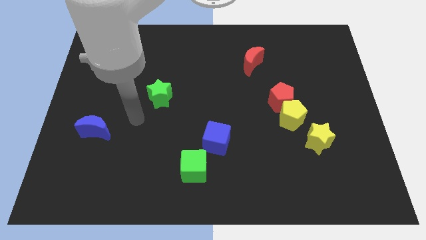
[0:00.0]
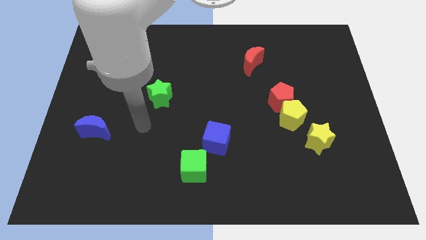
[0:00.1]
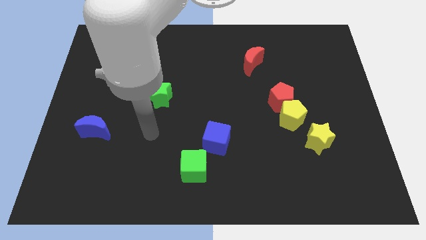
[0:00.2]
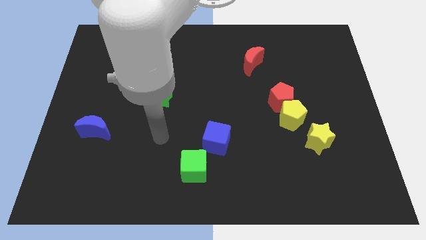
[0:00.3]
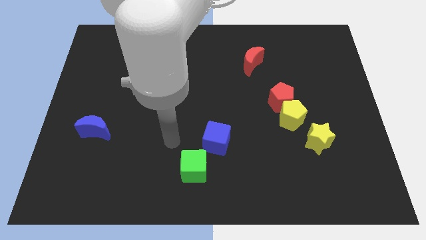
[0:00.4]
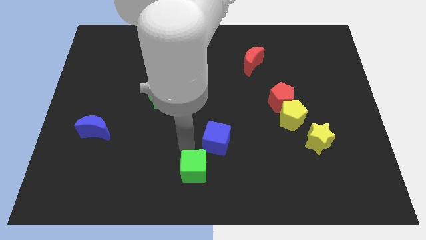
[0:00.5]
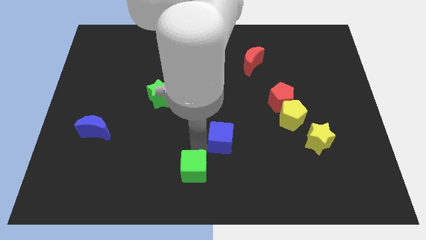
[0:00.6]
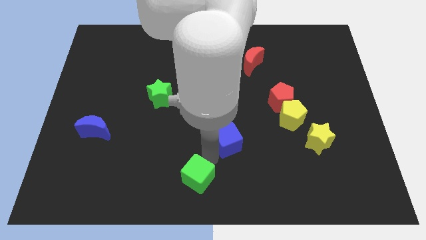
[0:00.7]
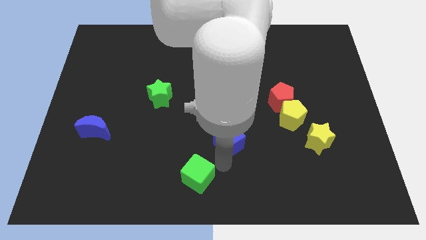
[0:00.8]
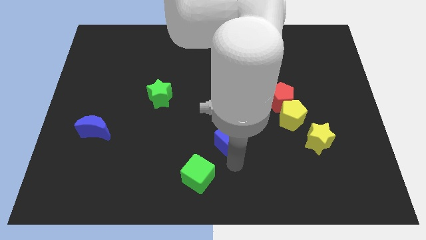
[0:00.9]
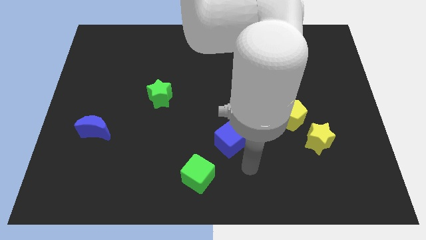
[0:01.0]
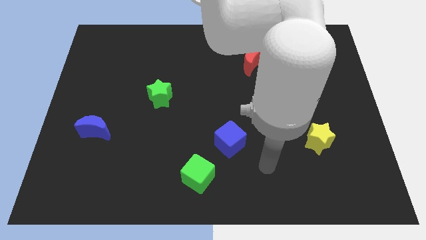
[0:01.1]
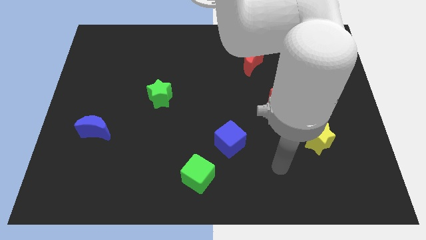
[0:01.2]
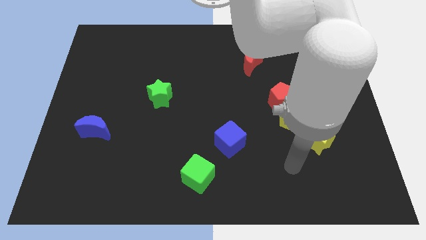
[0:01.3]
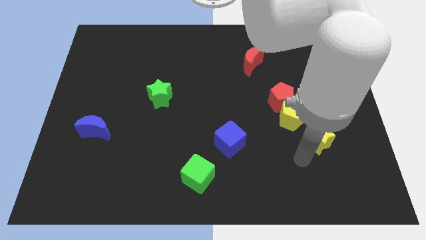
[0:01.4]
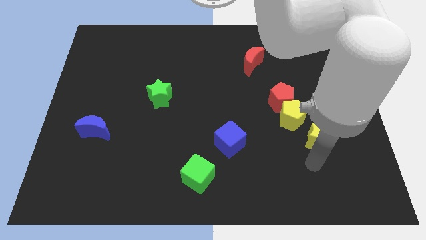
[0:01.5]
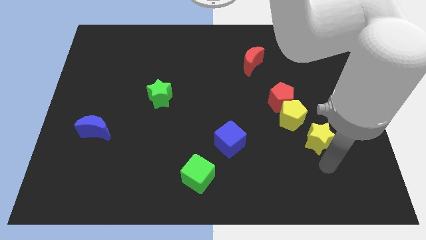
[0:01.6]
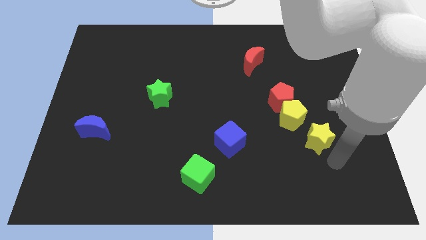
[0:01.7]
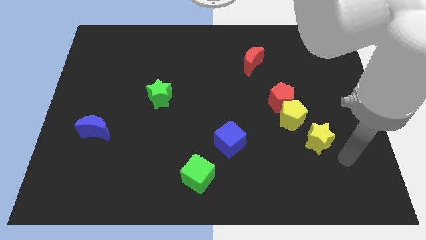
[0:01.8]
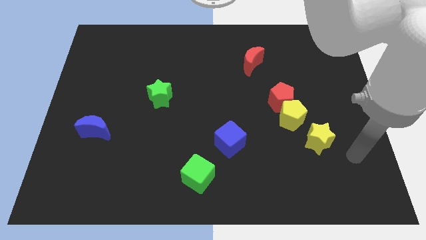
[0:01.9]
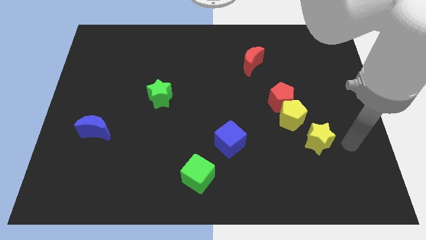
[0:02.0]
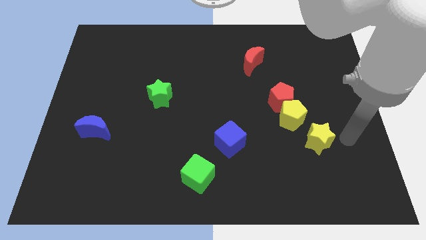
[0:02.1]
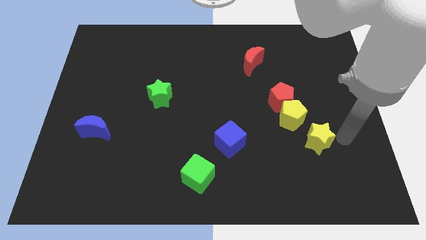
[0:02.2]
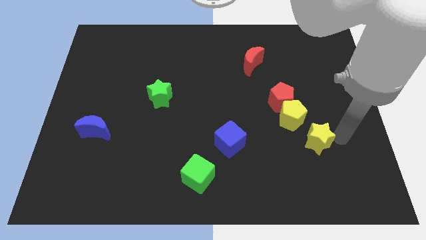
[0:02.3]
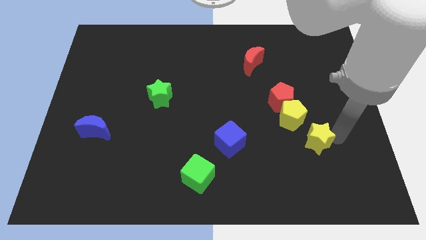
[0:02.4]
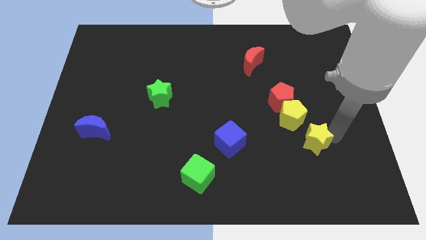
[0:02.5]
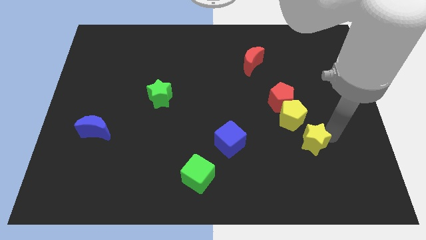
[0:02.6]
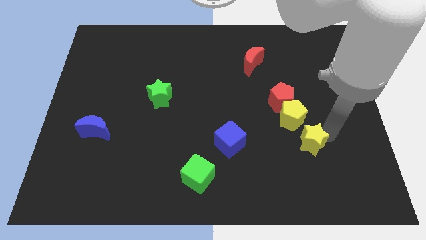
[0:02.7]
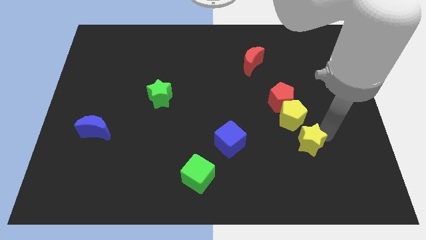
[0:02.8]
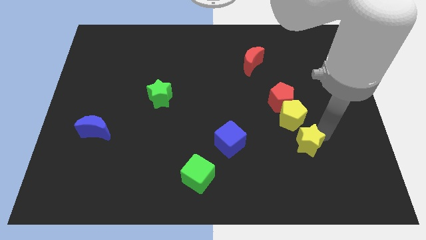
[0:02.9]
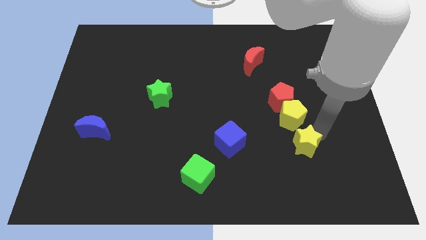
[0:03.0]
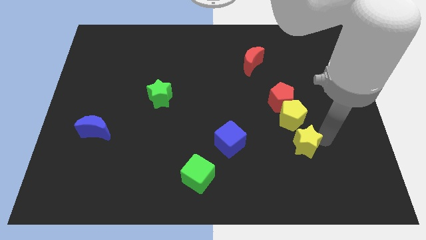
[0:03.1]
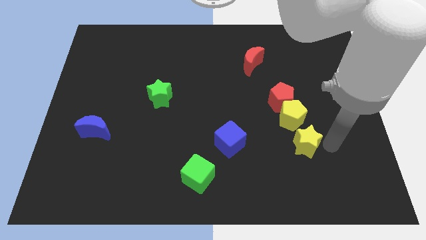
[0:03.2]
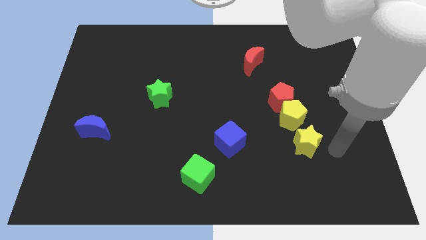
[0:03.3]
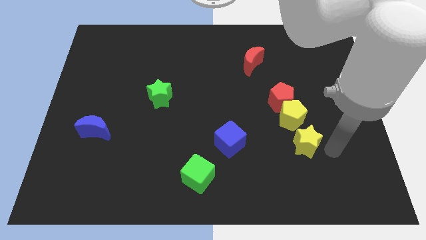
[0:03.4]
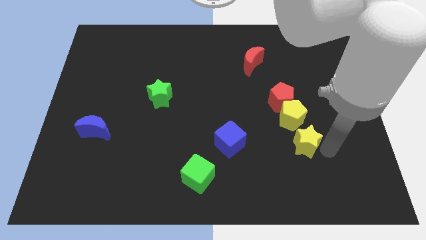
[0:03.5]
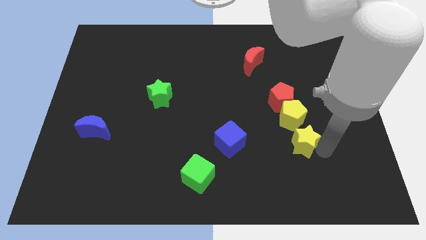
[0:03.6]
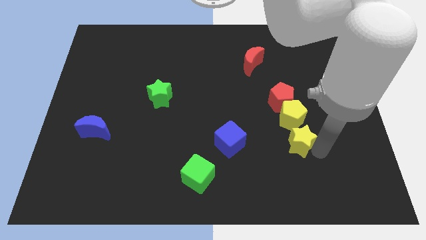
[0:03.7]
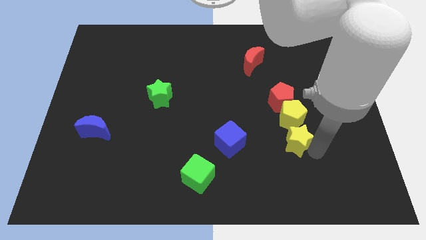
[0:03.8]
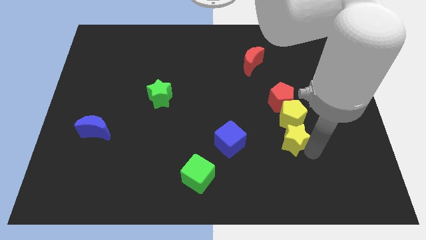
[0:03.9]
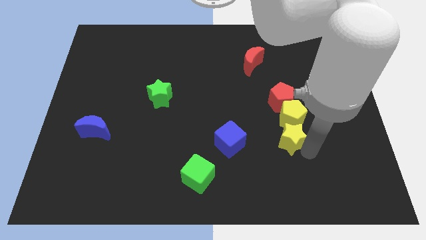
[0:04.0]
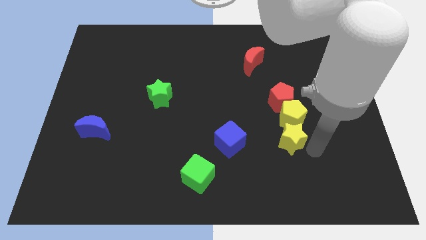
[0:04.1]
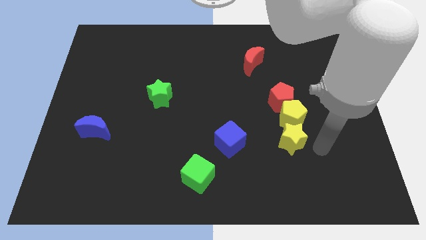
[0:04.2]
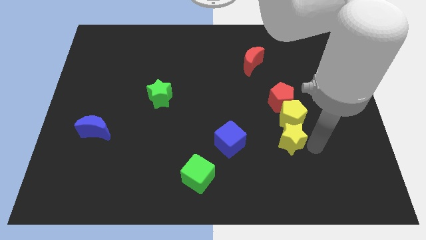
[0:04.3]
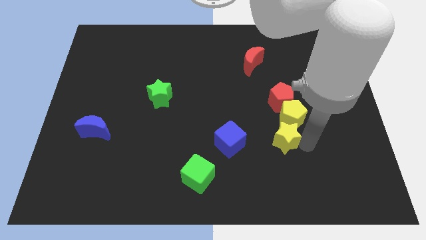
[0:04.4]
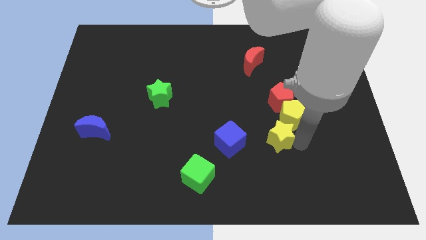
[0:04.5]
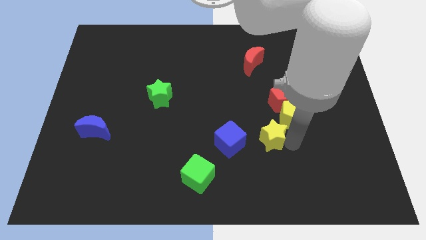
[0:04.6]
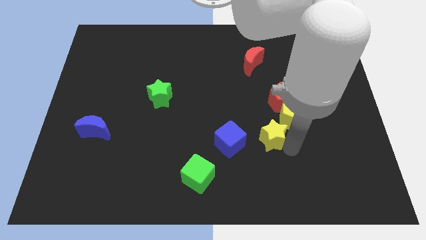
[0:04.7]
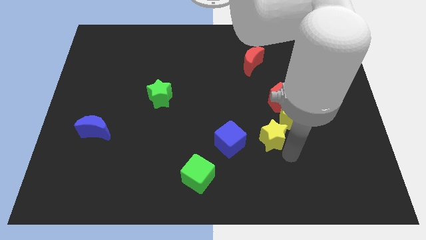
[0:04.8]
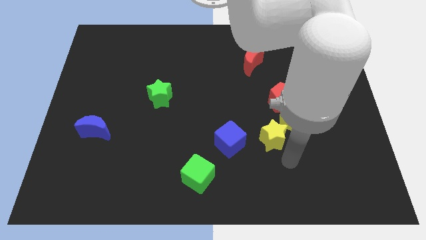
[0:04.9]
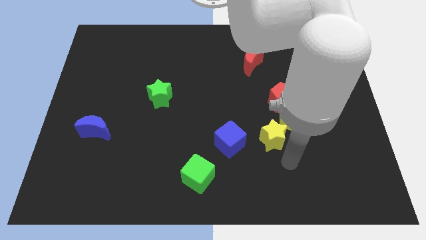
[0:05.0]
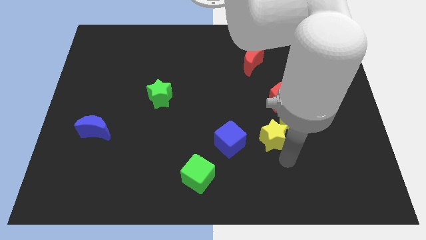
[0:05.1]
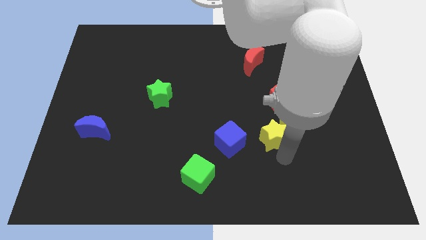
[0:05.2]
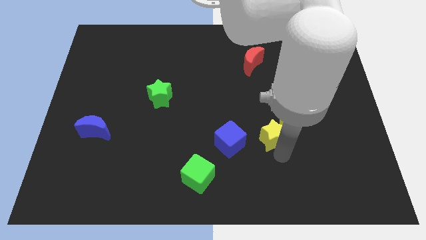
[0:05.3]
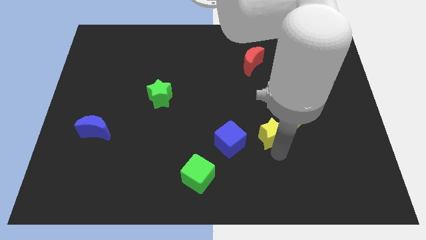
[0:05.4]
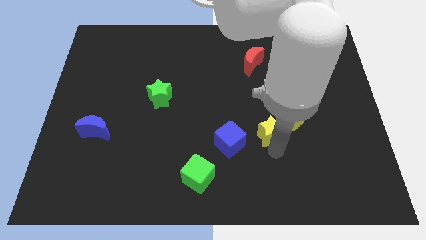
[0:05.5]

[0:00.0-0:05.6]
move the yellow star upwards and then left a bit

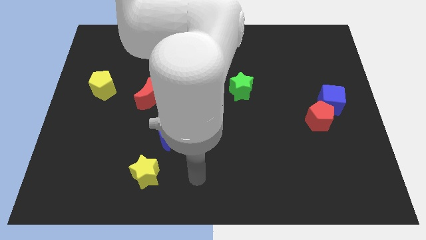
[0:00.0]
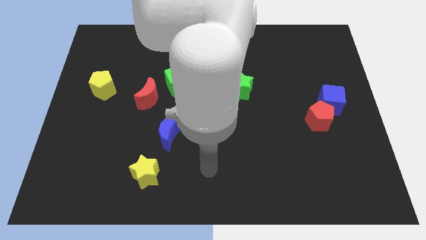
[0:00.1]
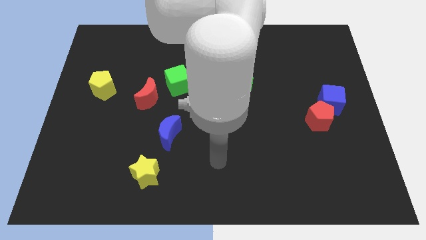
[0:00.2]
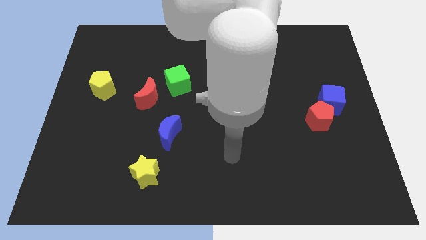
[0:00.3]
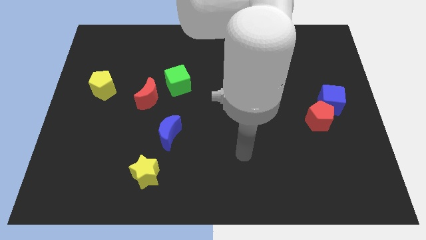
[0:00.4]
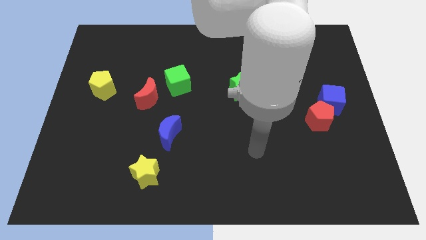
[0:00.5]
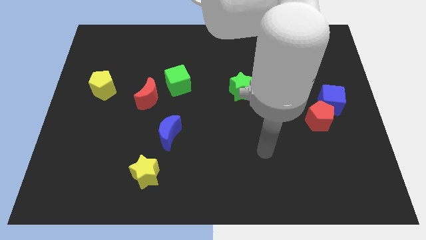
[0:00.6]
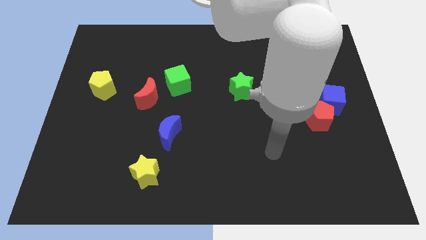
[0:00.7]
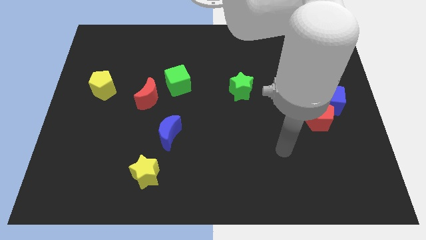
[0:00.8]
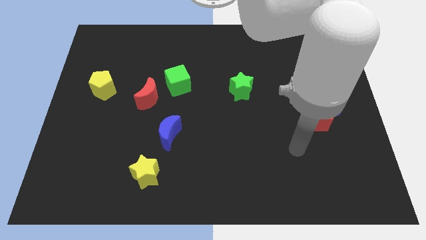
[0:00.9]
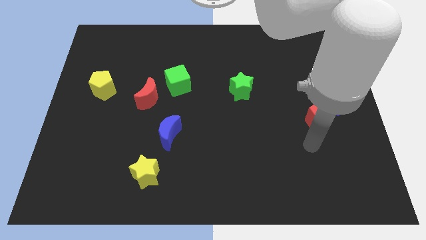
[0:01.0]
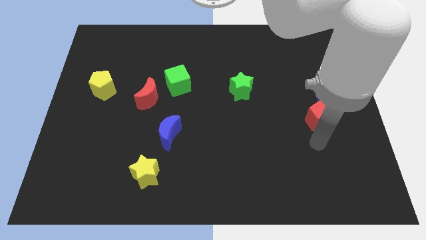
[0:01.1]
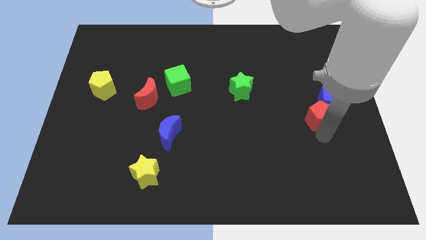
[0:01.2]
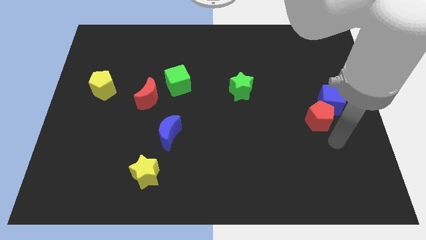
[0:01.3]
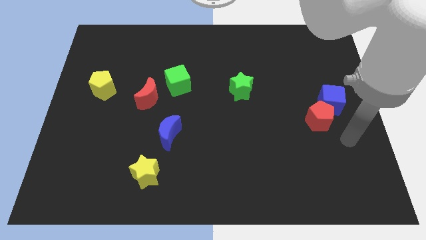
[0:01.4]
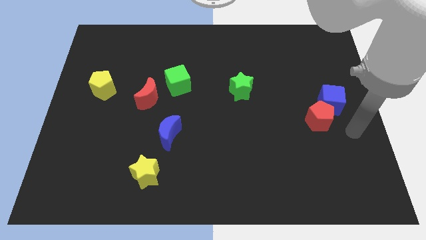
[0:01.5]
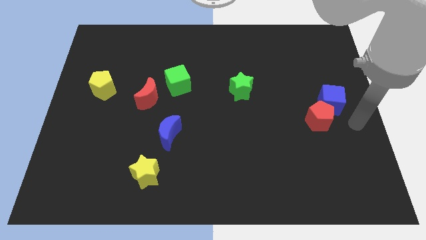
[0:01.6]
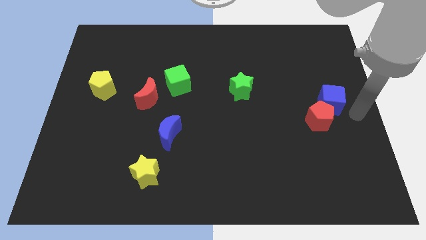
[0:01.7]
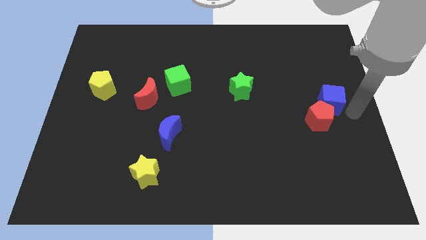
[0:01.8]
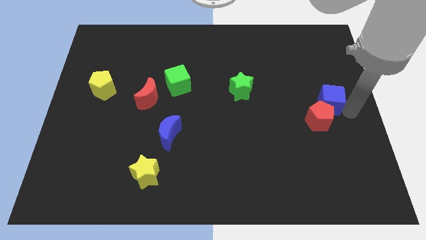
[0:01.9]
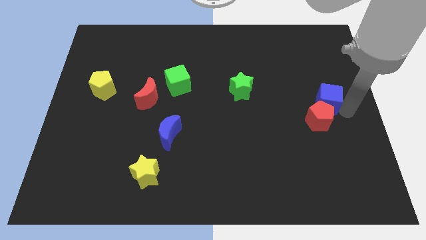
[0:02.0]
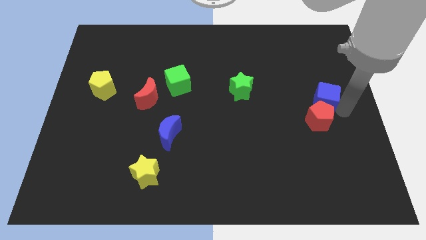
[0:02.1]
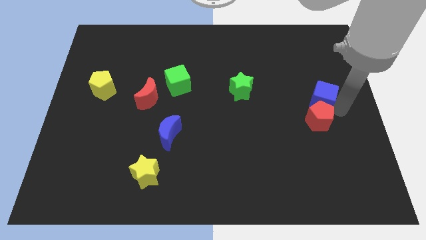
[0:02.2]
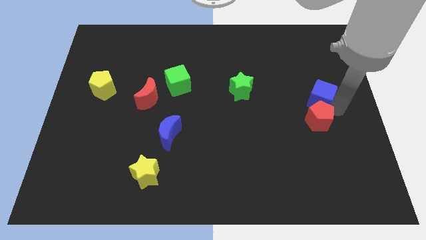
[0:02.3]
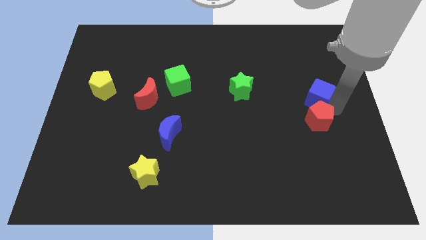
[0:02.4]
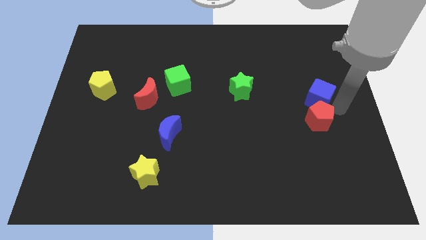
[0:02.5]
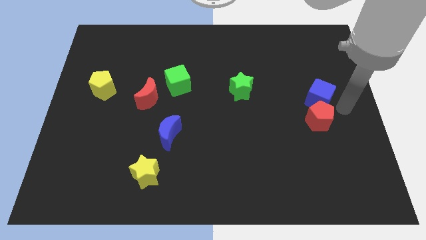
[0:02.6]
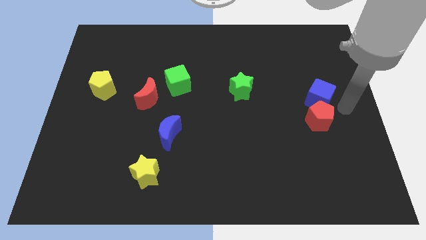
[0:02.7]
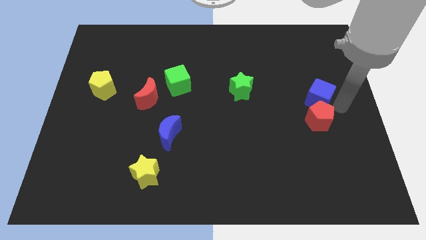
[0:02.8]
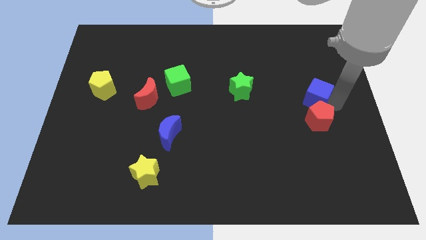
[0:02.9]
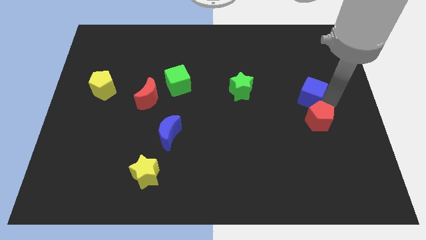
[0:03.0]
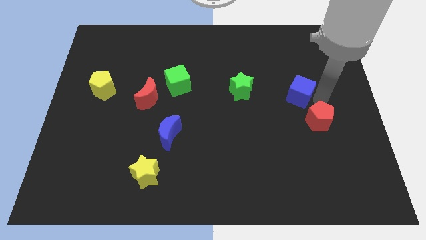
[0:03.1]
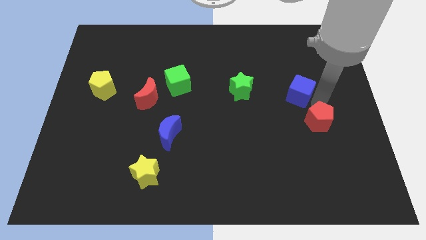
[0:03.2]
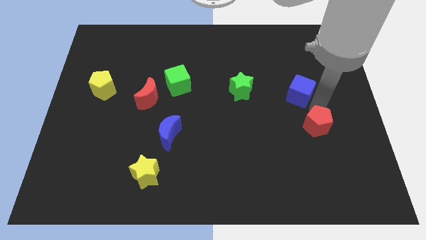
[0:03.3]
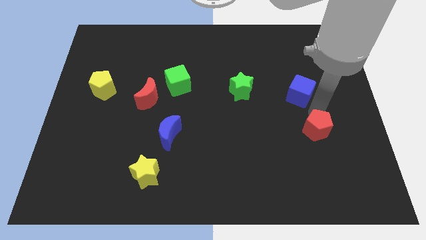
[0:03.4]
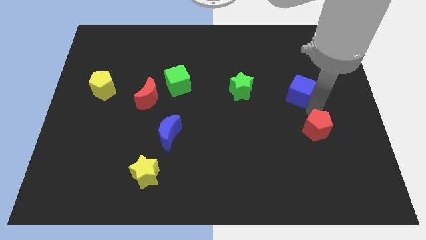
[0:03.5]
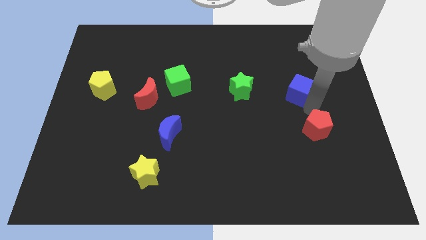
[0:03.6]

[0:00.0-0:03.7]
push the blue cube a bit up and then left
